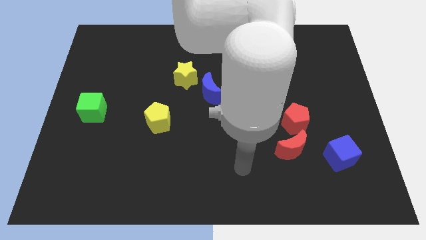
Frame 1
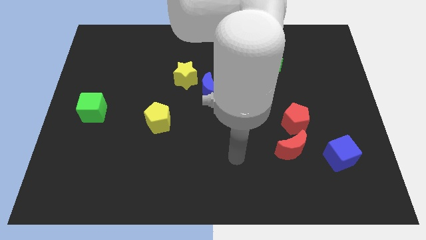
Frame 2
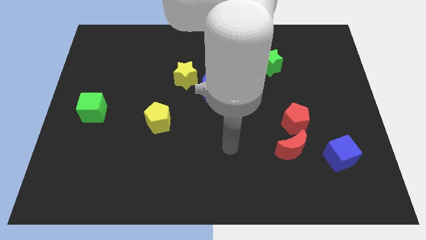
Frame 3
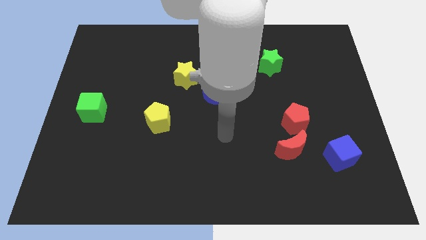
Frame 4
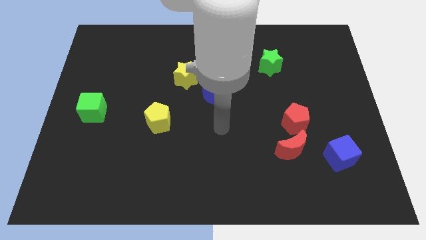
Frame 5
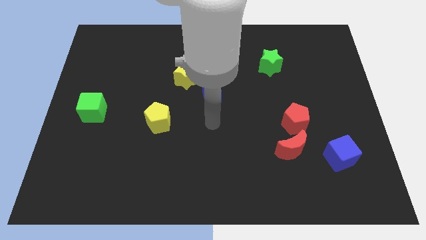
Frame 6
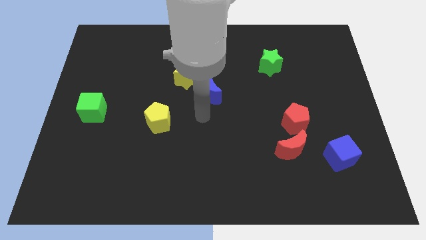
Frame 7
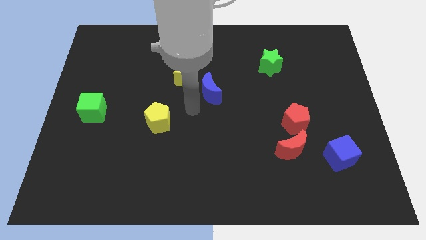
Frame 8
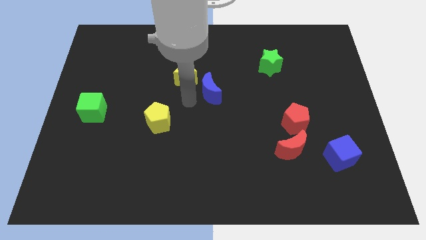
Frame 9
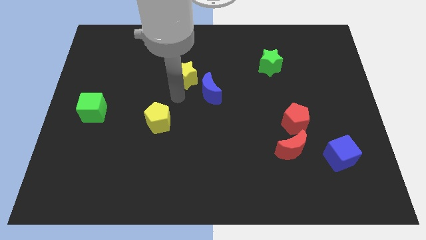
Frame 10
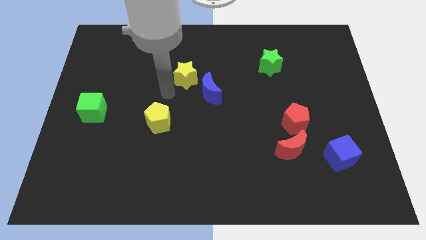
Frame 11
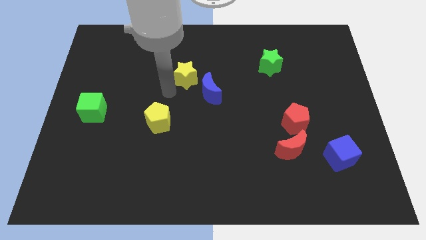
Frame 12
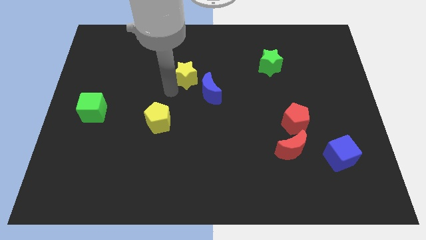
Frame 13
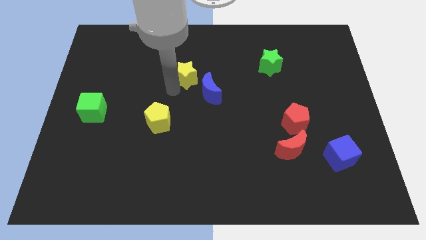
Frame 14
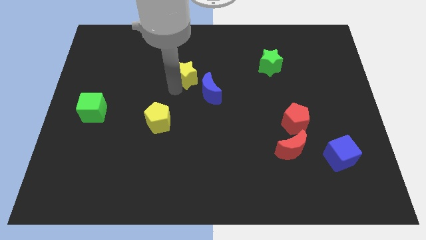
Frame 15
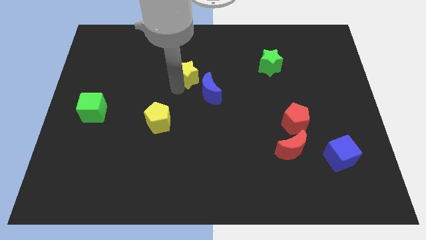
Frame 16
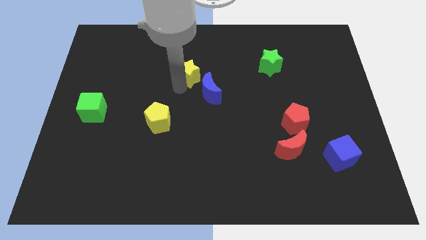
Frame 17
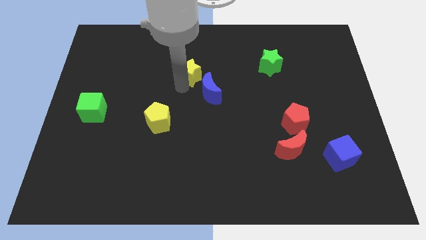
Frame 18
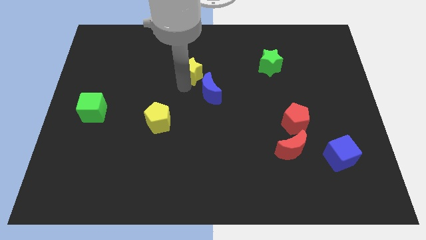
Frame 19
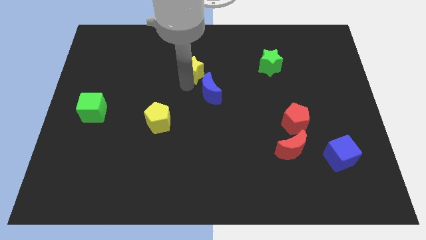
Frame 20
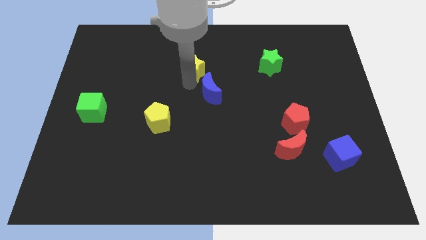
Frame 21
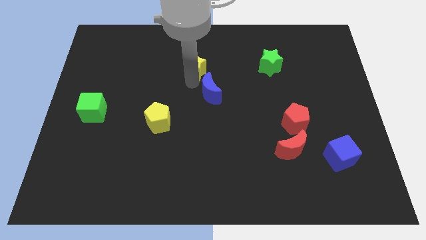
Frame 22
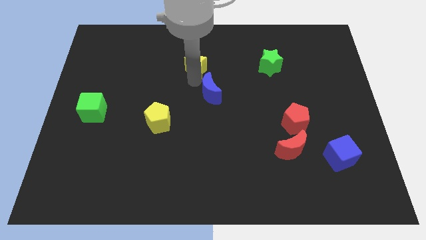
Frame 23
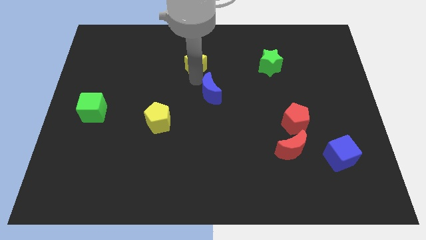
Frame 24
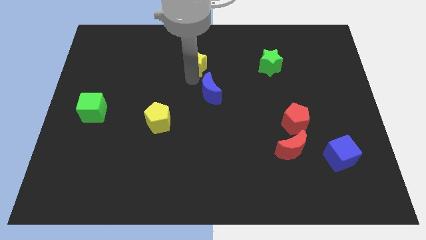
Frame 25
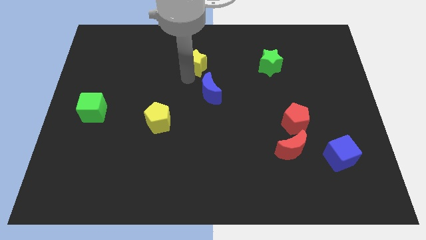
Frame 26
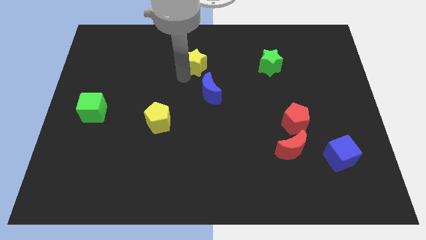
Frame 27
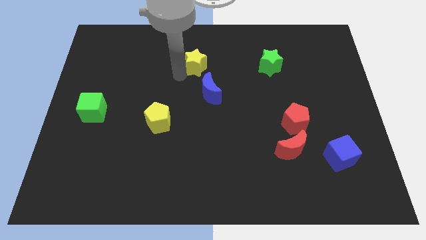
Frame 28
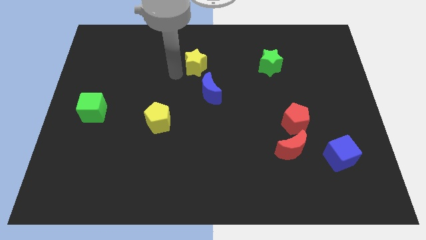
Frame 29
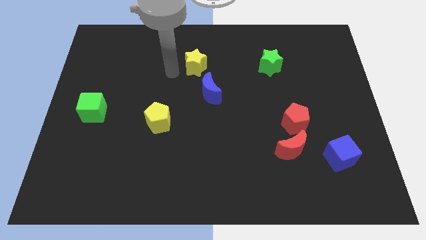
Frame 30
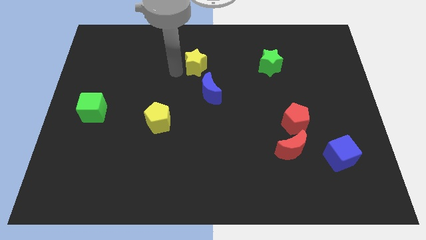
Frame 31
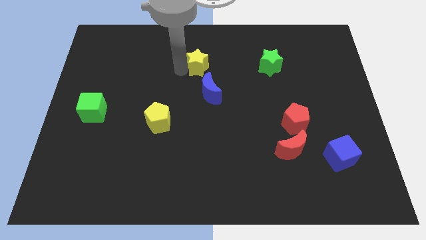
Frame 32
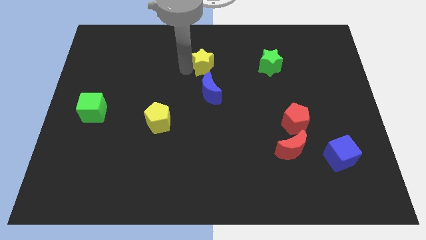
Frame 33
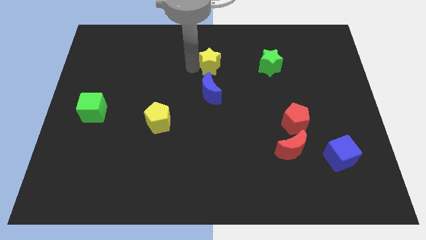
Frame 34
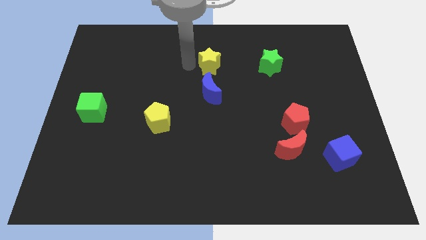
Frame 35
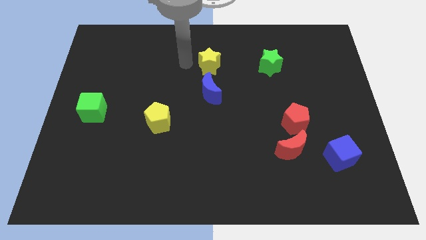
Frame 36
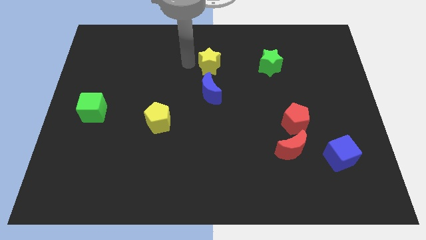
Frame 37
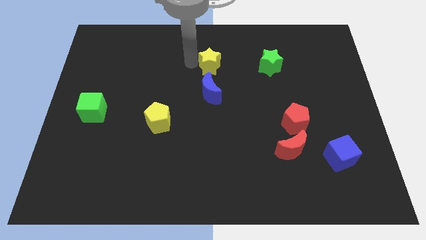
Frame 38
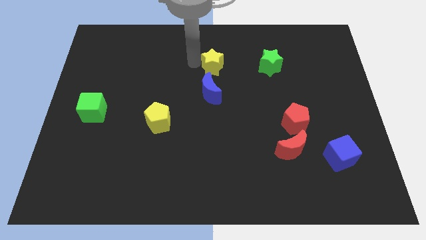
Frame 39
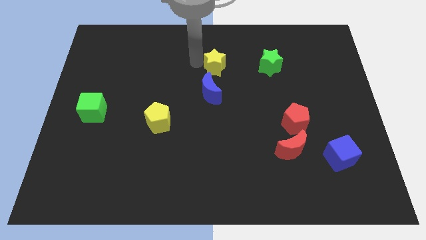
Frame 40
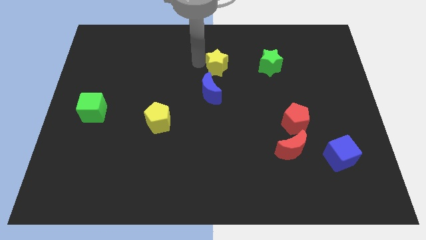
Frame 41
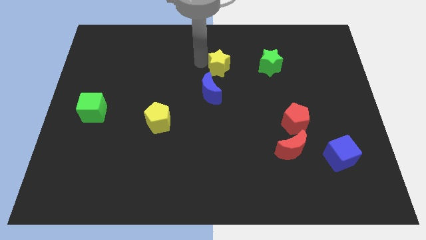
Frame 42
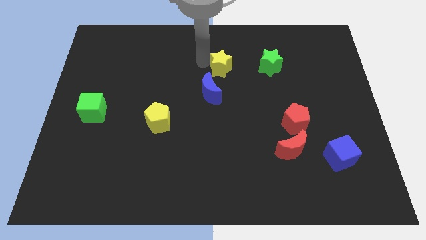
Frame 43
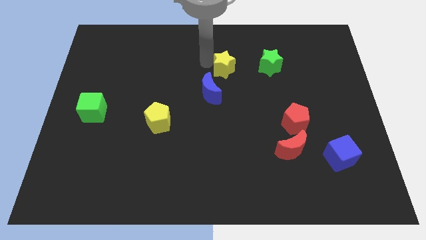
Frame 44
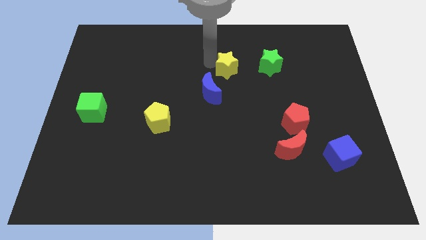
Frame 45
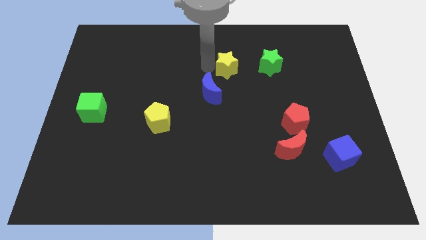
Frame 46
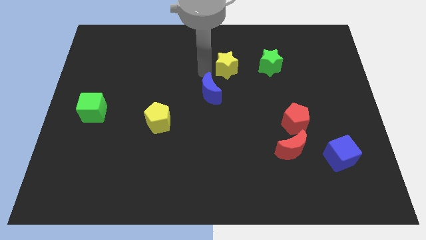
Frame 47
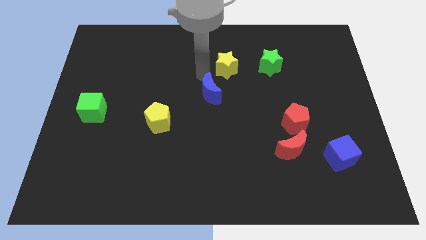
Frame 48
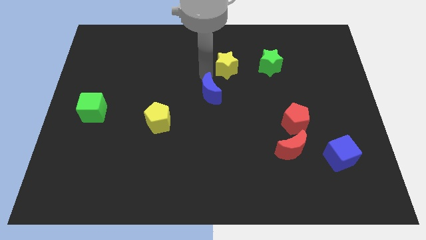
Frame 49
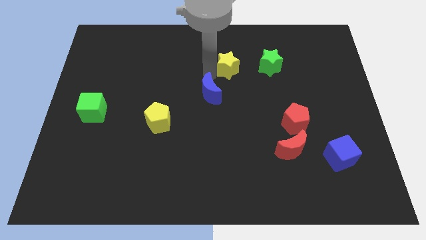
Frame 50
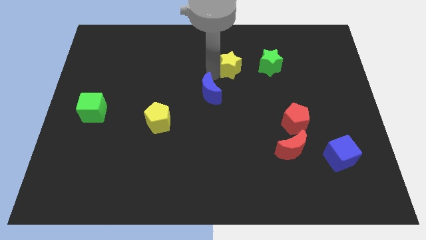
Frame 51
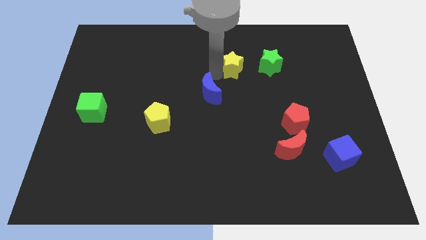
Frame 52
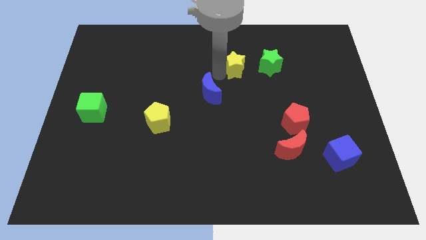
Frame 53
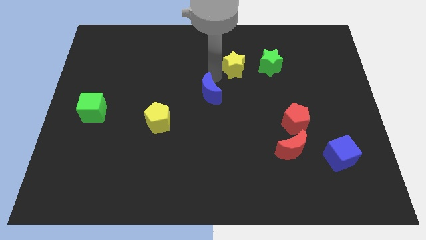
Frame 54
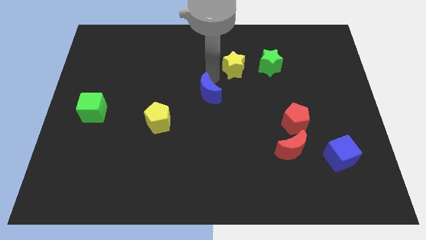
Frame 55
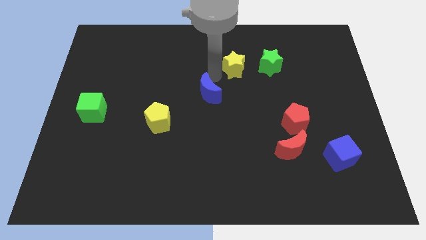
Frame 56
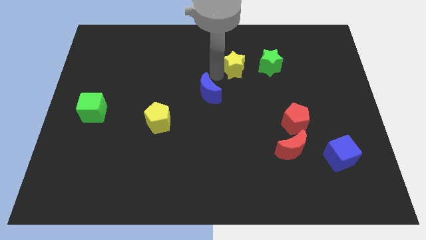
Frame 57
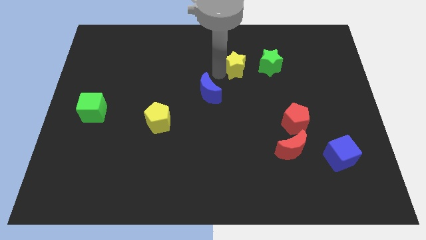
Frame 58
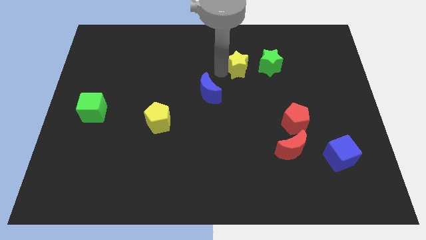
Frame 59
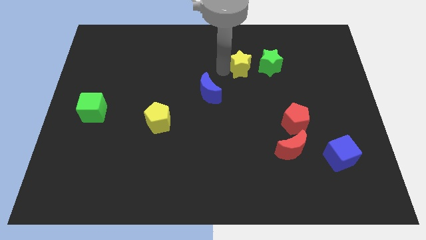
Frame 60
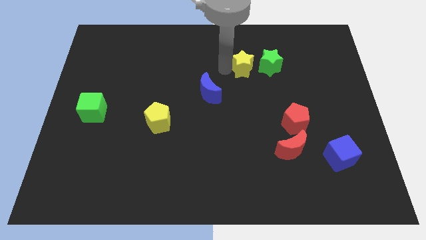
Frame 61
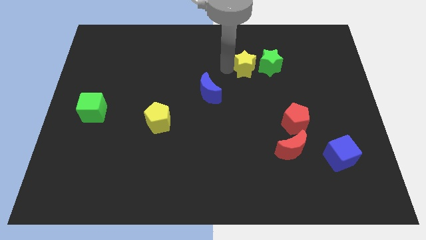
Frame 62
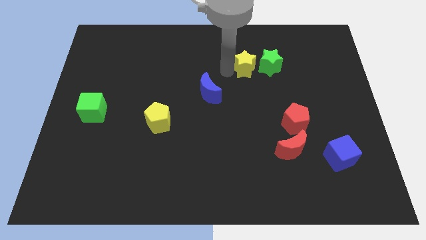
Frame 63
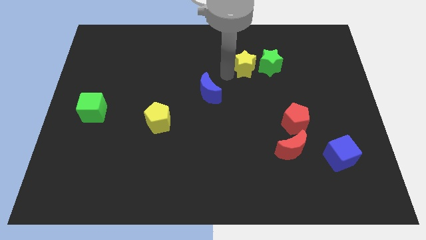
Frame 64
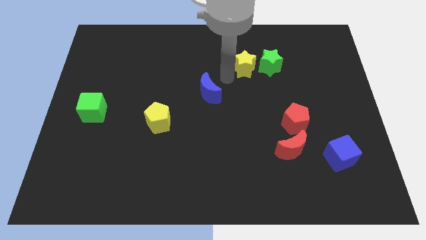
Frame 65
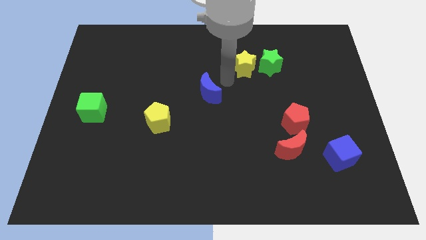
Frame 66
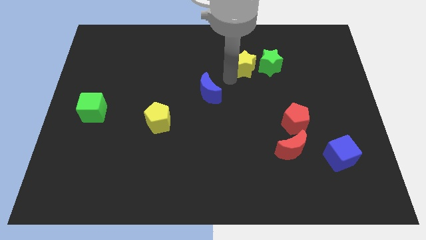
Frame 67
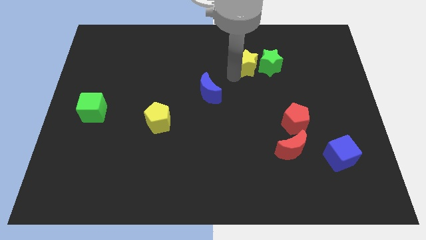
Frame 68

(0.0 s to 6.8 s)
move the yellow star next to the green star

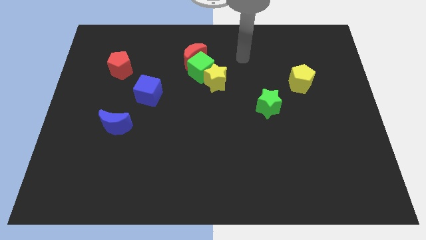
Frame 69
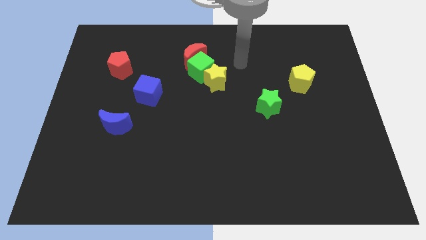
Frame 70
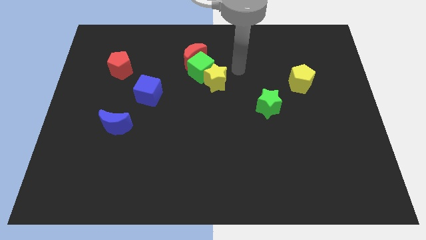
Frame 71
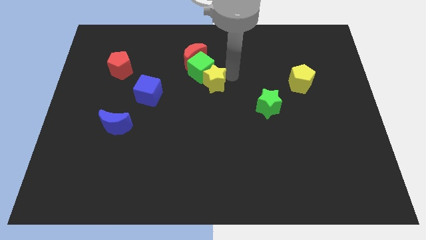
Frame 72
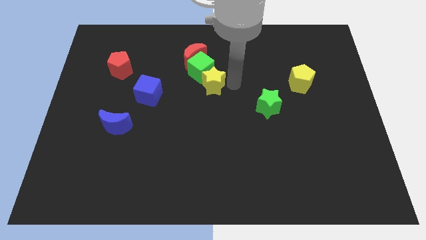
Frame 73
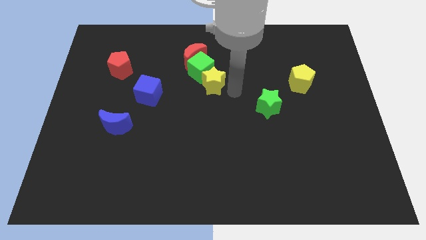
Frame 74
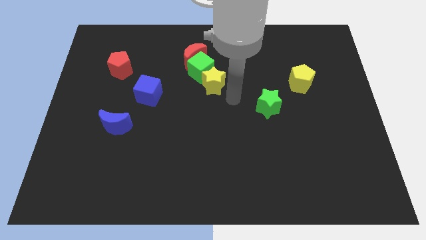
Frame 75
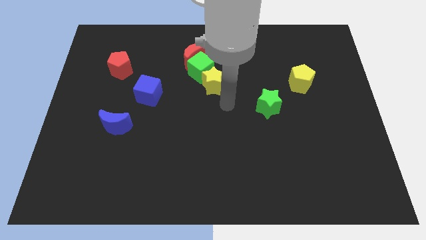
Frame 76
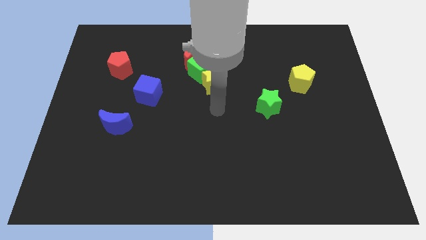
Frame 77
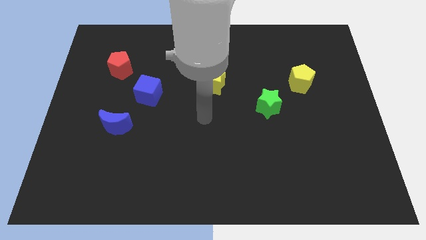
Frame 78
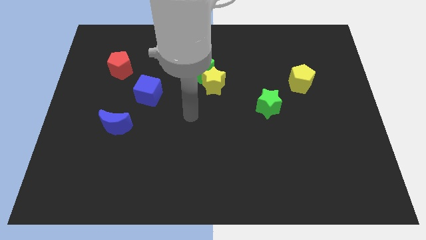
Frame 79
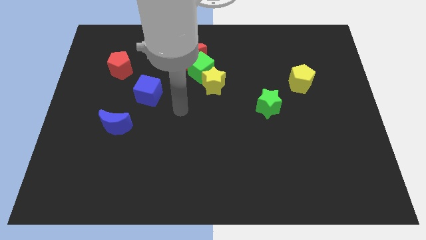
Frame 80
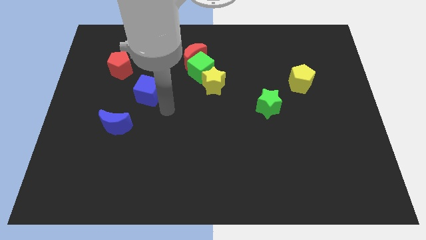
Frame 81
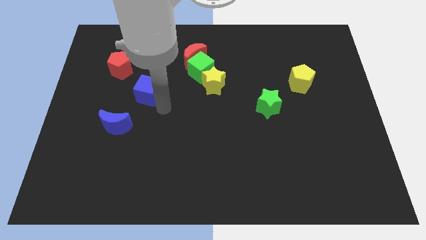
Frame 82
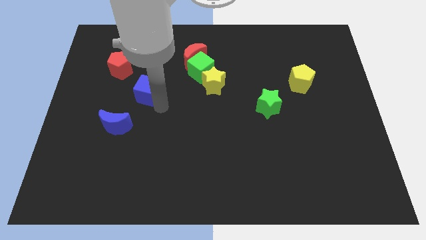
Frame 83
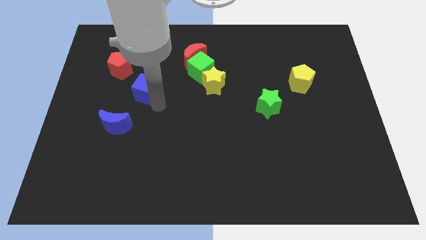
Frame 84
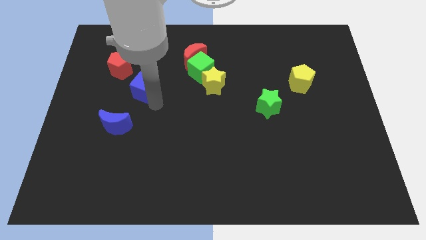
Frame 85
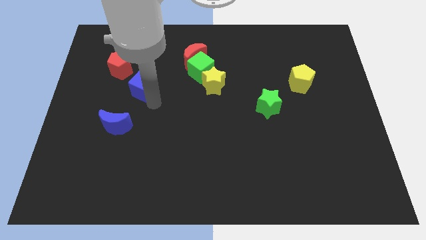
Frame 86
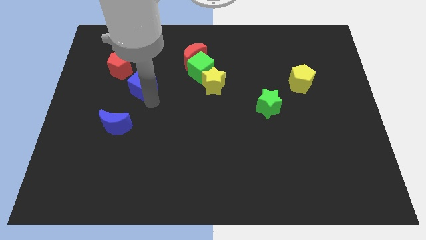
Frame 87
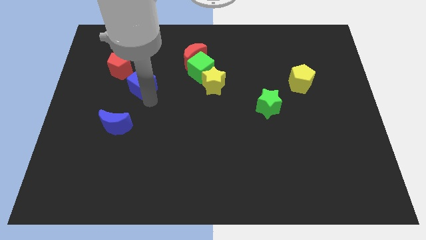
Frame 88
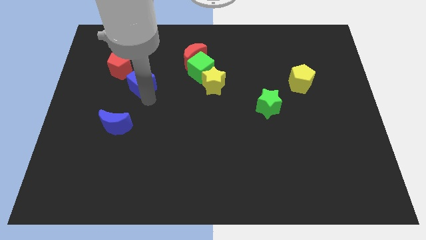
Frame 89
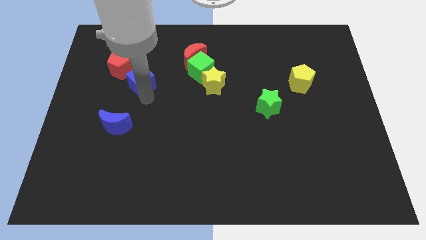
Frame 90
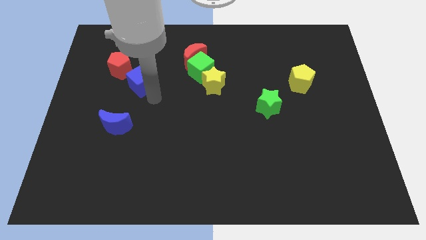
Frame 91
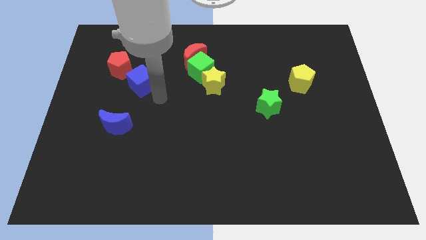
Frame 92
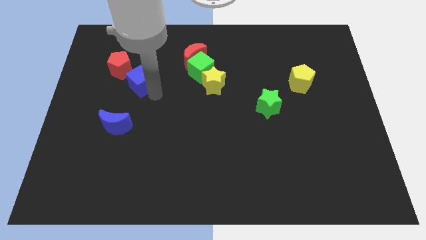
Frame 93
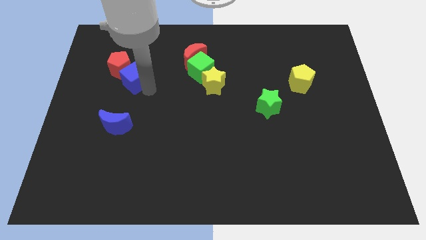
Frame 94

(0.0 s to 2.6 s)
move the blue cube next to the red pentagon
